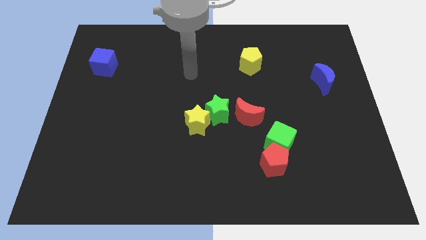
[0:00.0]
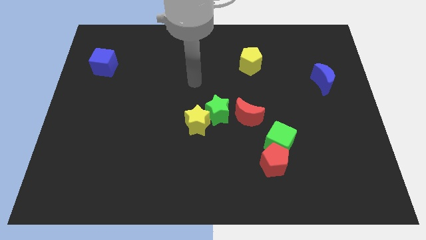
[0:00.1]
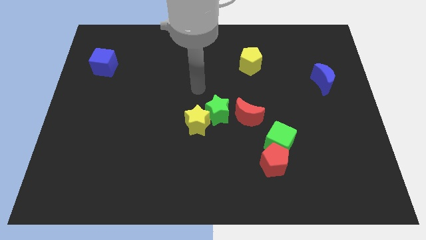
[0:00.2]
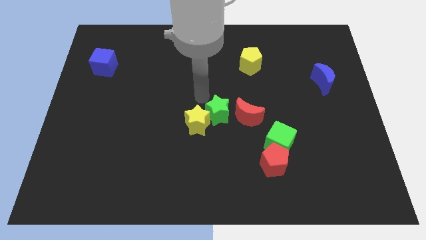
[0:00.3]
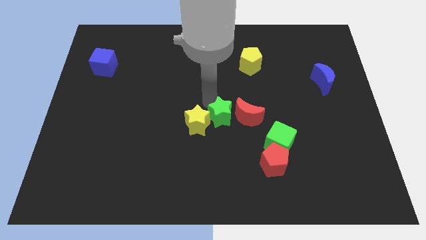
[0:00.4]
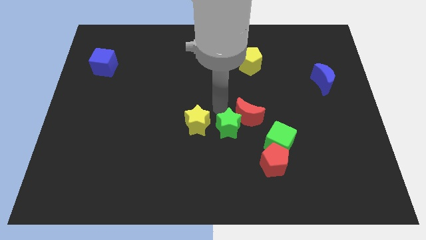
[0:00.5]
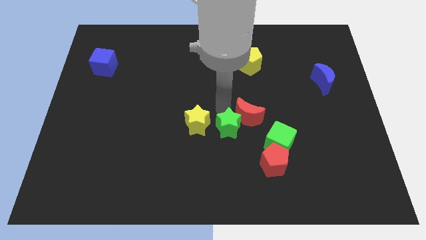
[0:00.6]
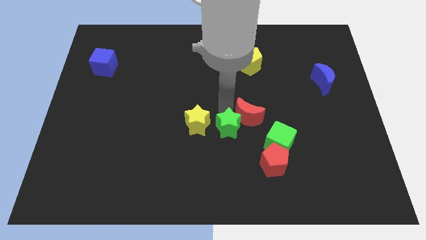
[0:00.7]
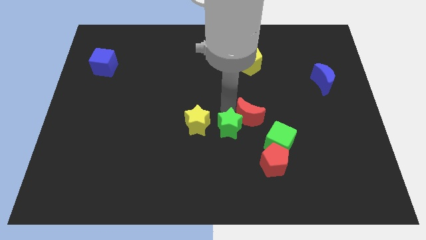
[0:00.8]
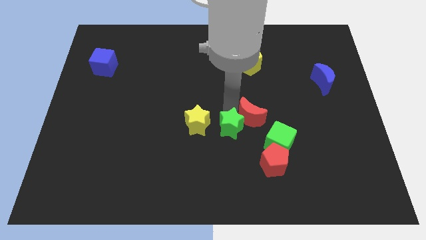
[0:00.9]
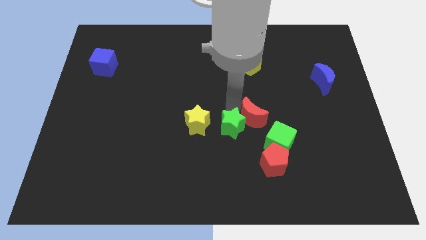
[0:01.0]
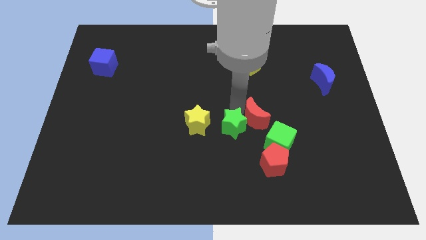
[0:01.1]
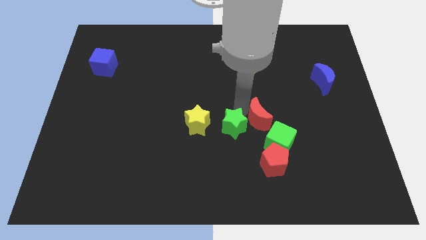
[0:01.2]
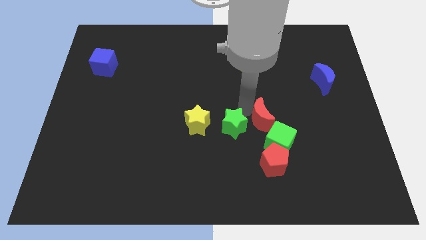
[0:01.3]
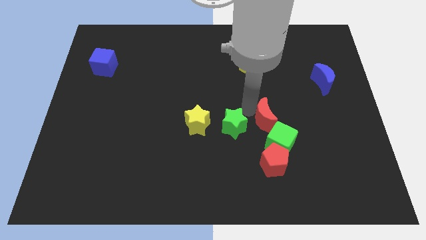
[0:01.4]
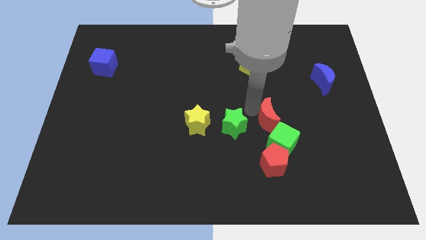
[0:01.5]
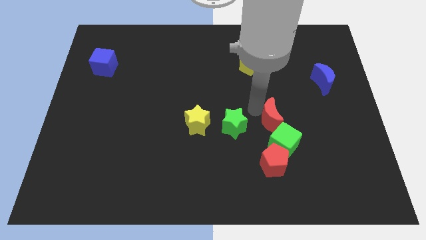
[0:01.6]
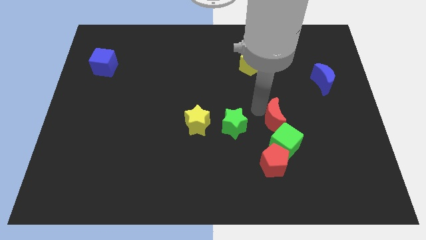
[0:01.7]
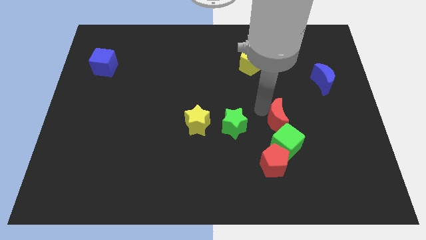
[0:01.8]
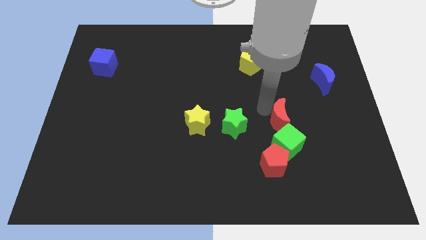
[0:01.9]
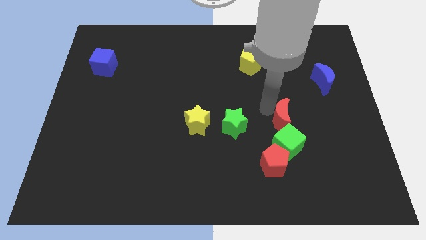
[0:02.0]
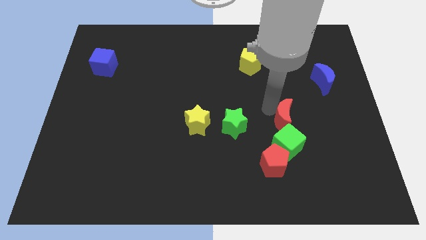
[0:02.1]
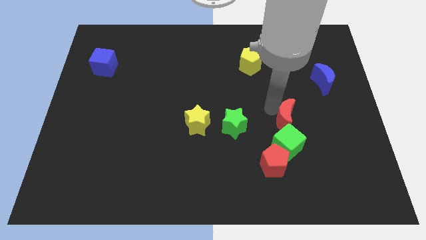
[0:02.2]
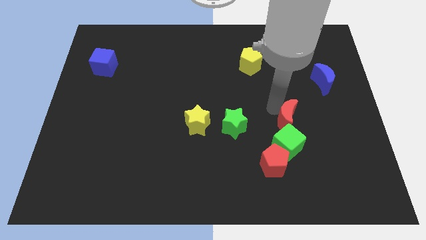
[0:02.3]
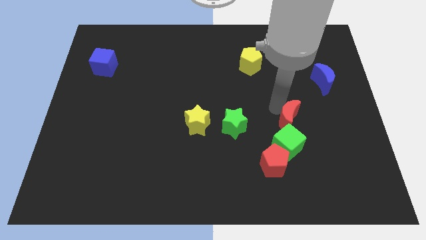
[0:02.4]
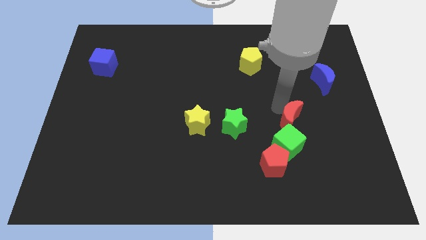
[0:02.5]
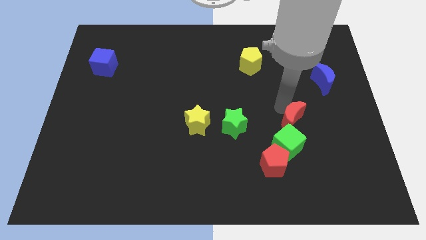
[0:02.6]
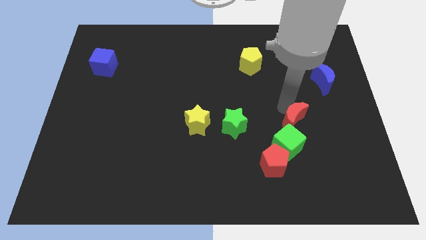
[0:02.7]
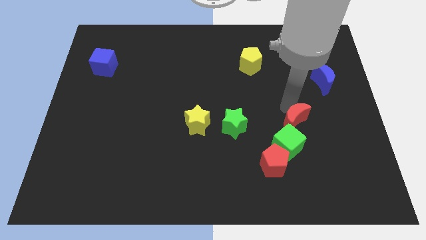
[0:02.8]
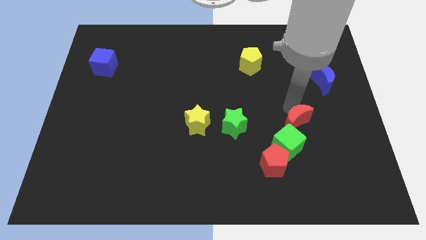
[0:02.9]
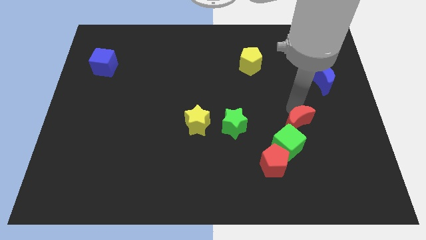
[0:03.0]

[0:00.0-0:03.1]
slightly move the red moon down and to the right

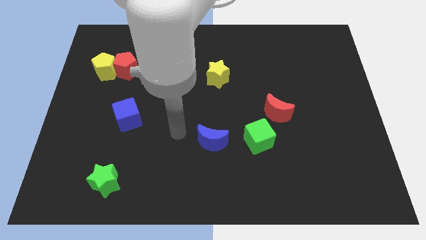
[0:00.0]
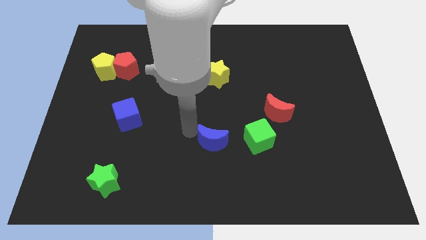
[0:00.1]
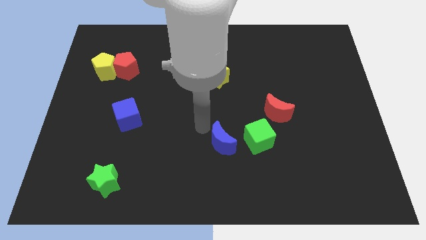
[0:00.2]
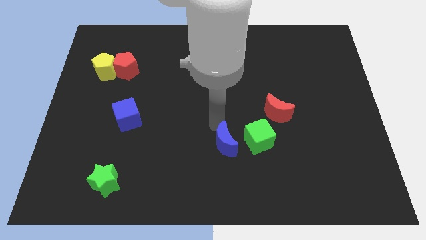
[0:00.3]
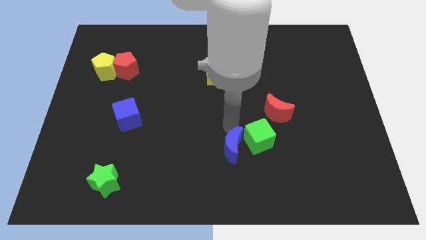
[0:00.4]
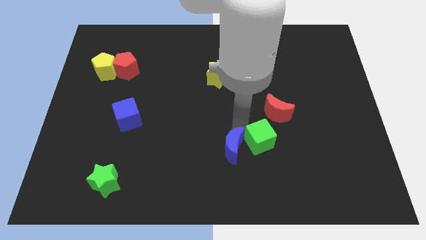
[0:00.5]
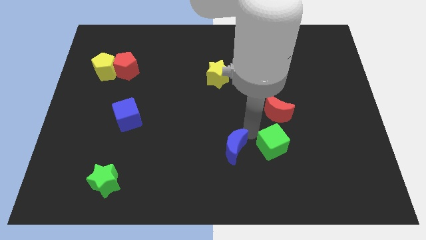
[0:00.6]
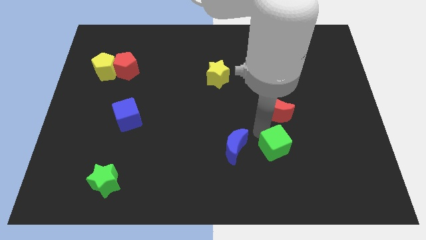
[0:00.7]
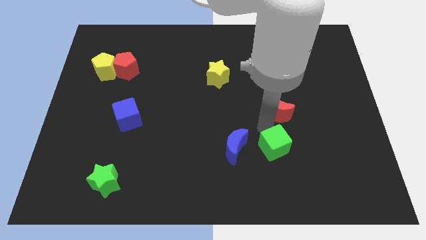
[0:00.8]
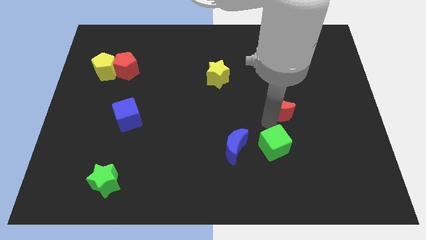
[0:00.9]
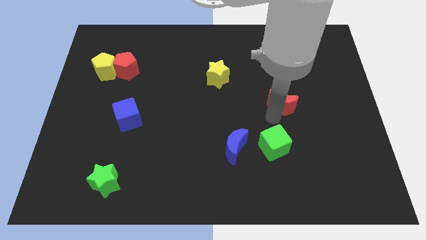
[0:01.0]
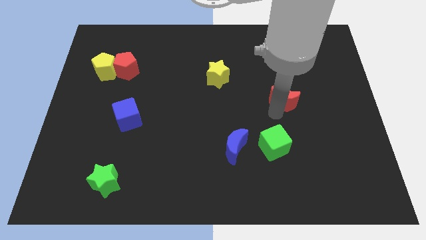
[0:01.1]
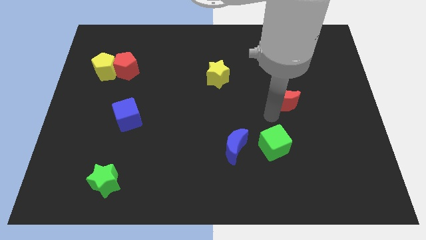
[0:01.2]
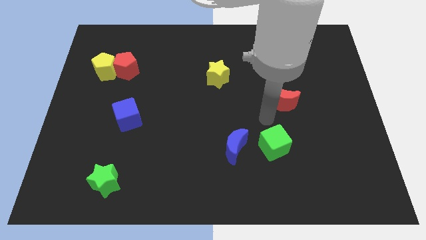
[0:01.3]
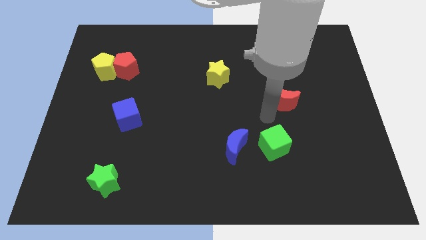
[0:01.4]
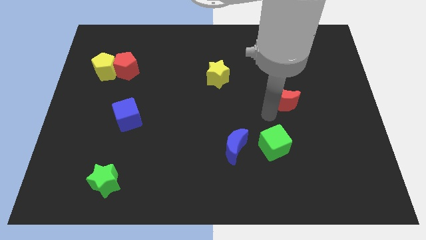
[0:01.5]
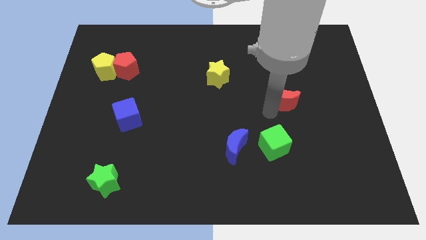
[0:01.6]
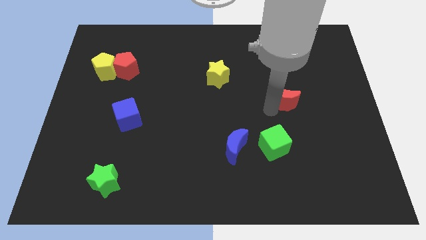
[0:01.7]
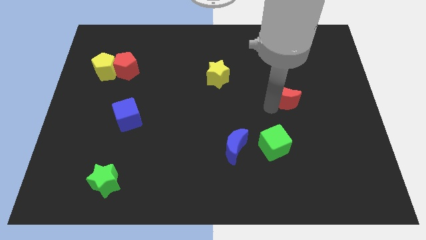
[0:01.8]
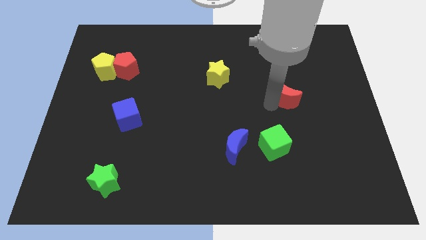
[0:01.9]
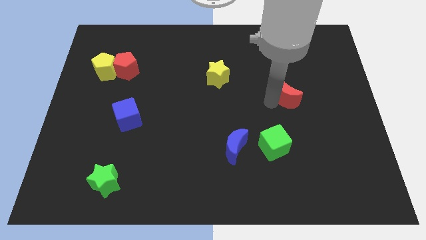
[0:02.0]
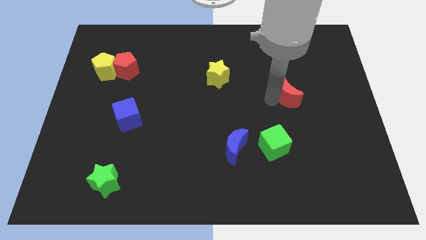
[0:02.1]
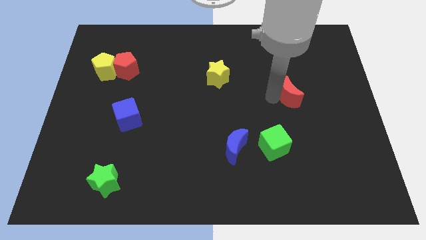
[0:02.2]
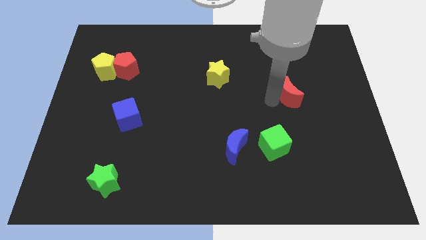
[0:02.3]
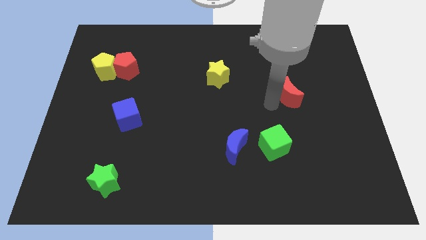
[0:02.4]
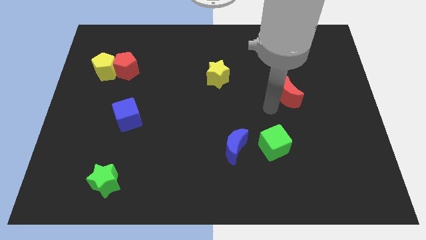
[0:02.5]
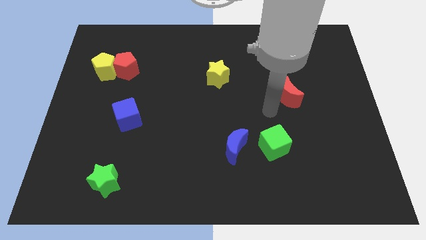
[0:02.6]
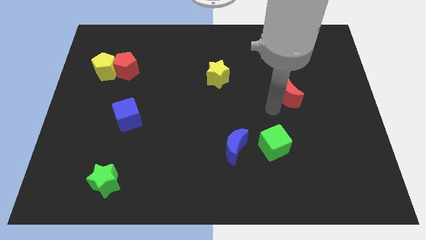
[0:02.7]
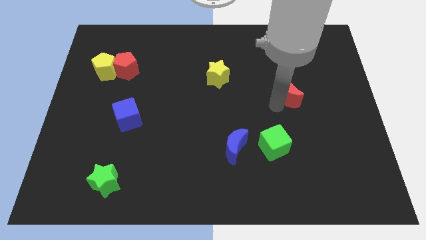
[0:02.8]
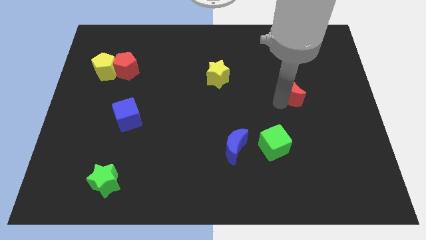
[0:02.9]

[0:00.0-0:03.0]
push the red moon up and to the right diagonally a little bit

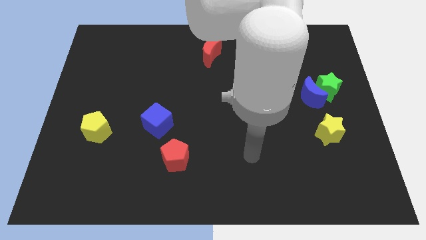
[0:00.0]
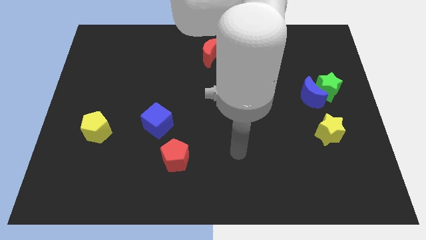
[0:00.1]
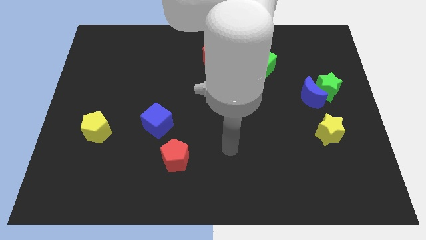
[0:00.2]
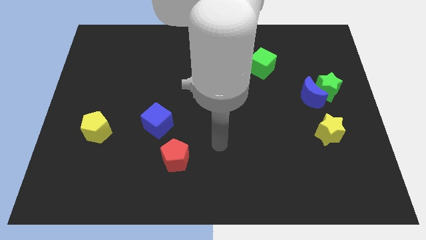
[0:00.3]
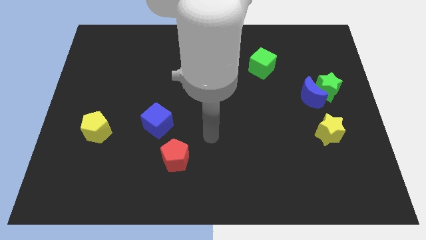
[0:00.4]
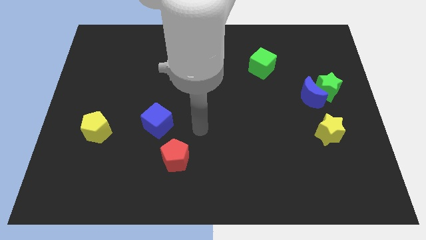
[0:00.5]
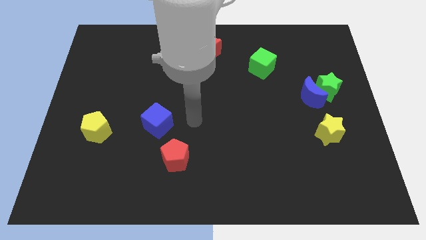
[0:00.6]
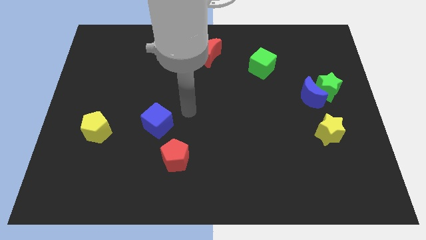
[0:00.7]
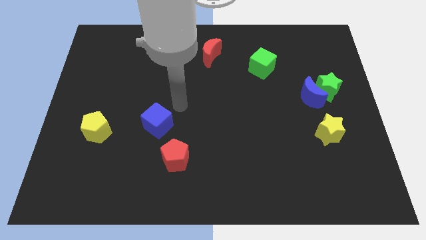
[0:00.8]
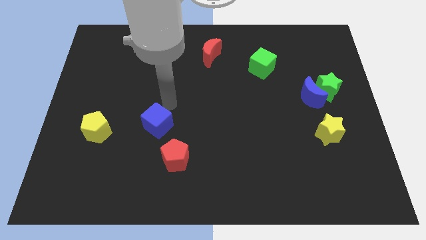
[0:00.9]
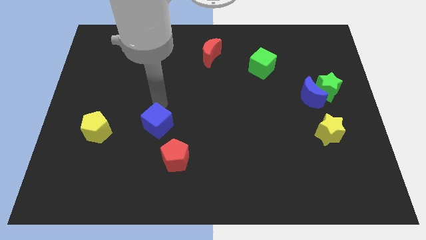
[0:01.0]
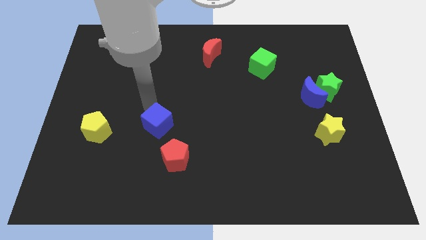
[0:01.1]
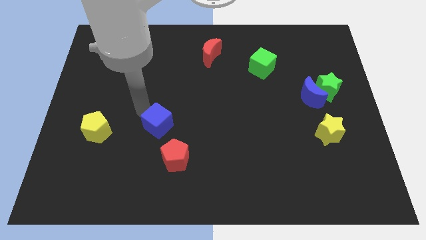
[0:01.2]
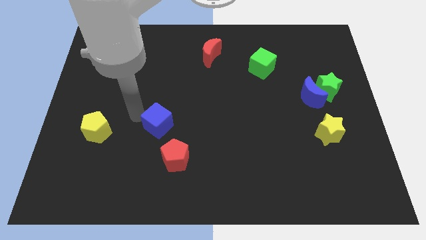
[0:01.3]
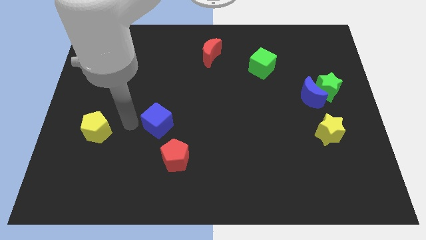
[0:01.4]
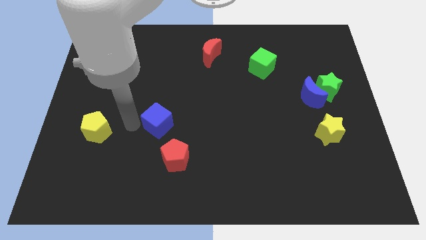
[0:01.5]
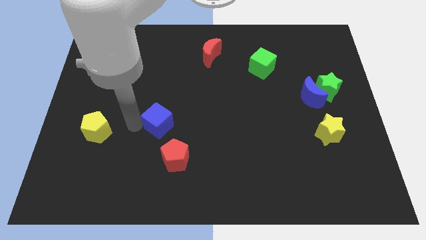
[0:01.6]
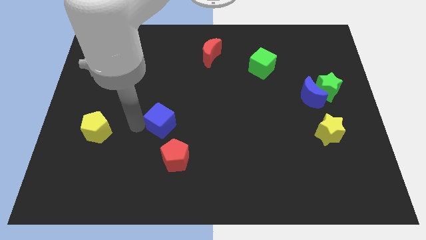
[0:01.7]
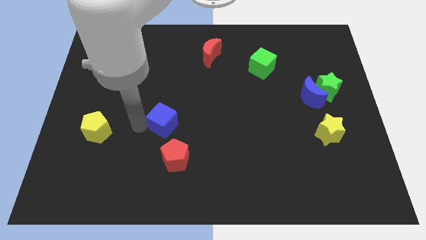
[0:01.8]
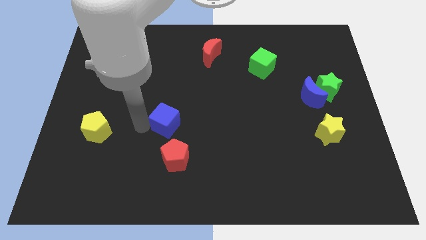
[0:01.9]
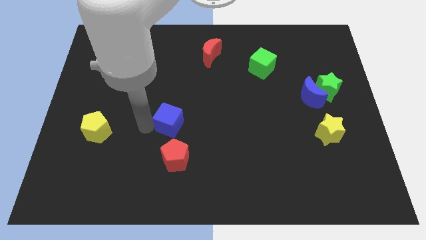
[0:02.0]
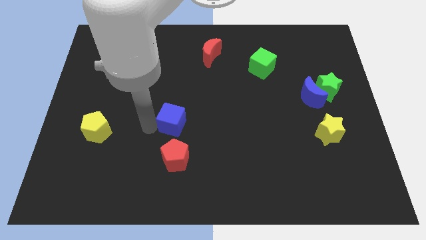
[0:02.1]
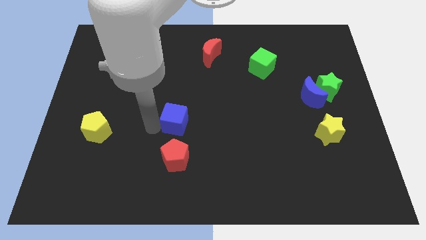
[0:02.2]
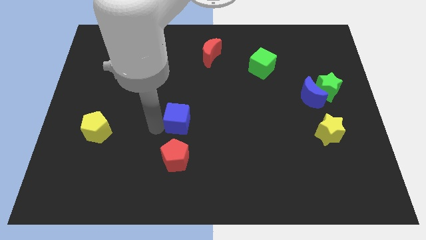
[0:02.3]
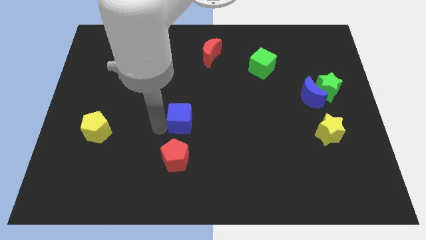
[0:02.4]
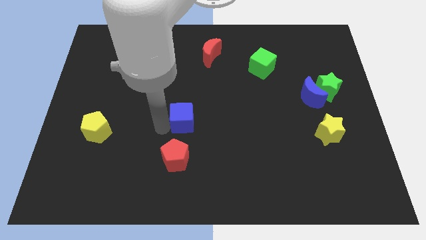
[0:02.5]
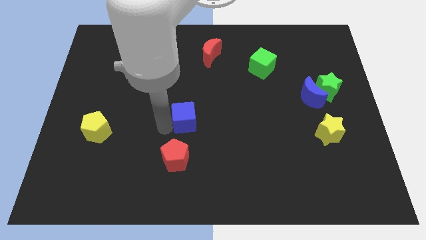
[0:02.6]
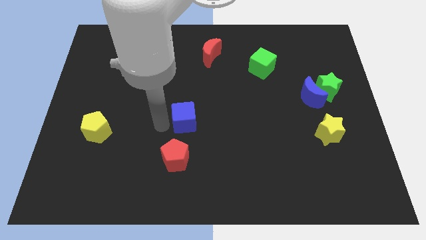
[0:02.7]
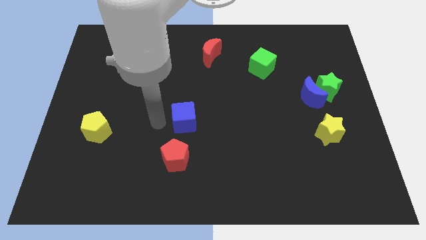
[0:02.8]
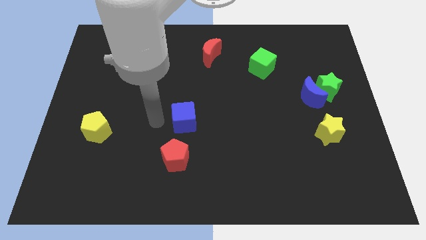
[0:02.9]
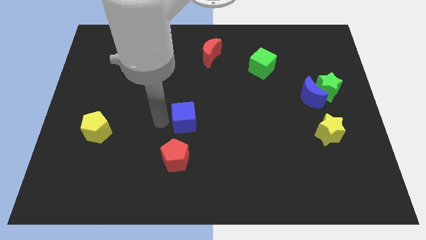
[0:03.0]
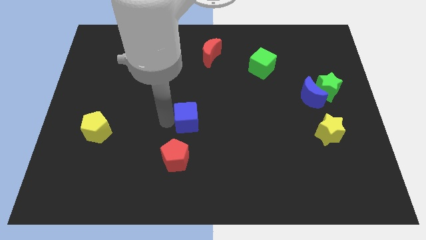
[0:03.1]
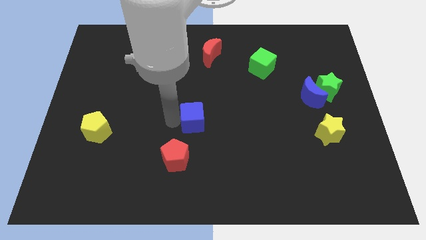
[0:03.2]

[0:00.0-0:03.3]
push the blue cube a little to the right
